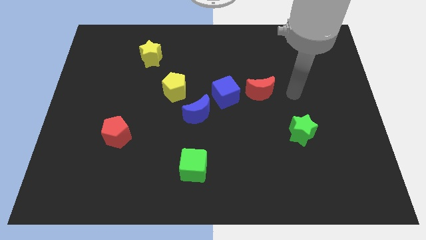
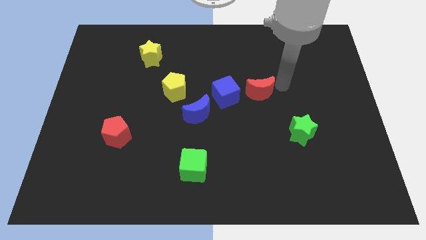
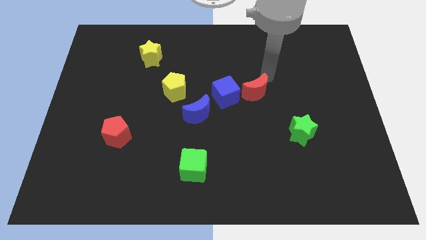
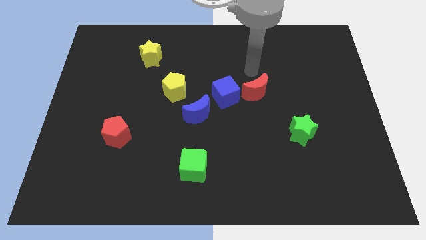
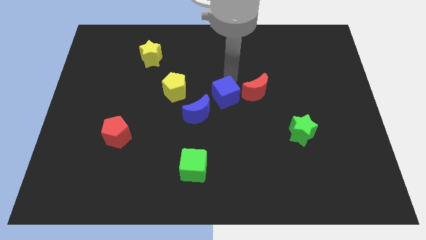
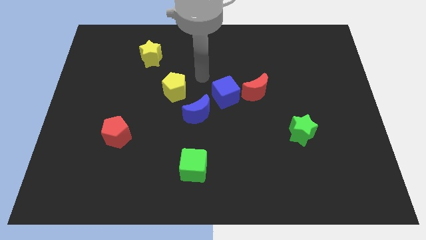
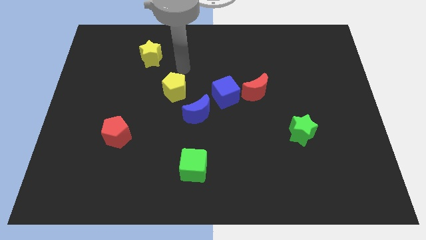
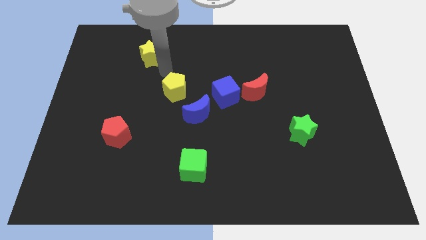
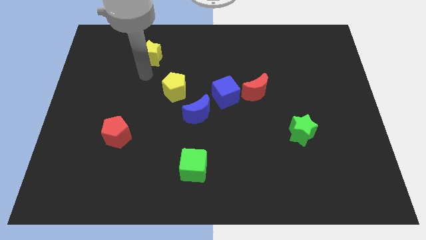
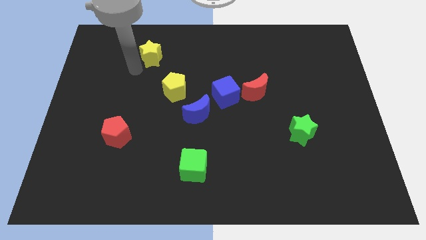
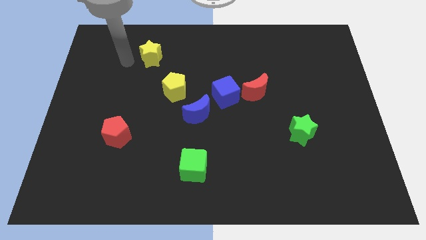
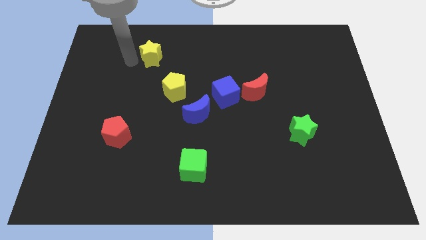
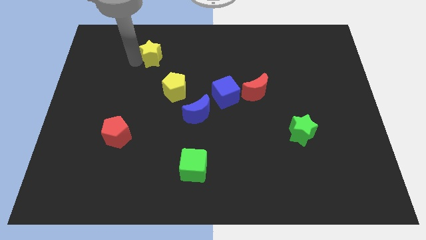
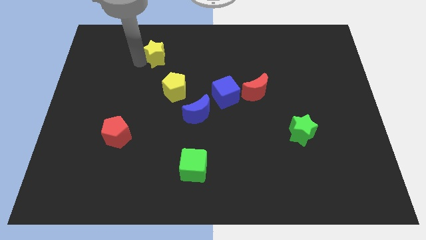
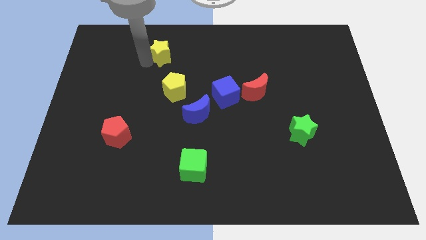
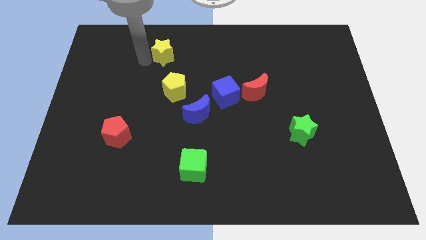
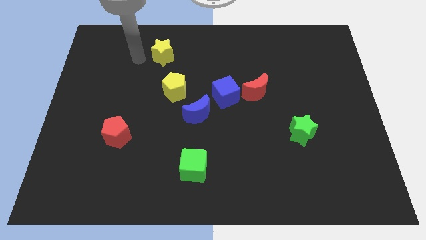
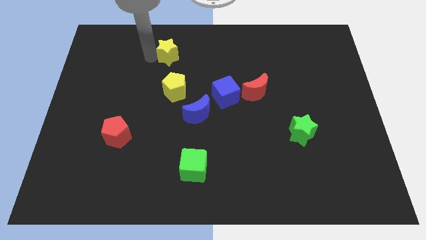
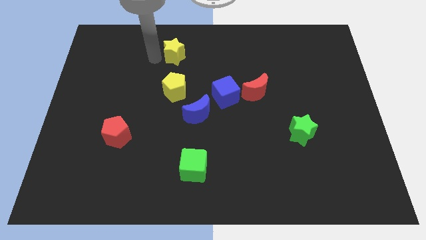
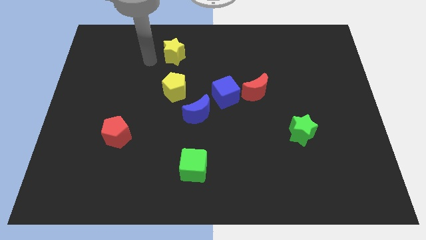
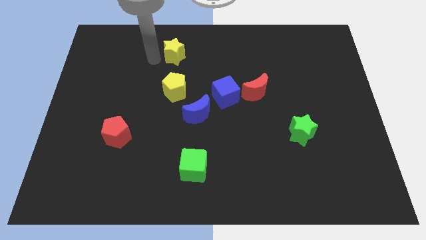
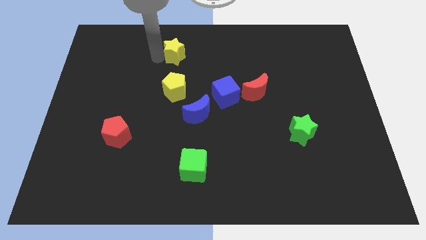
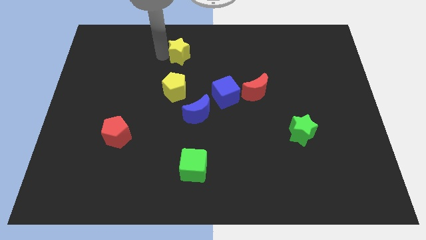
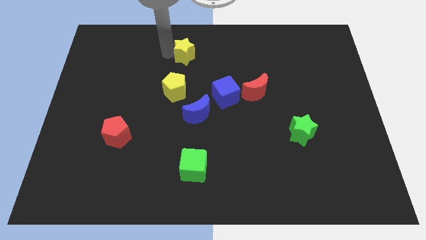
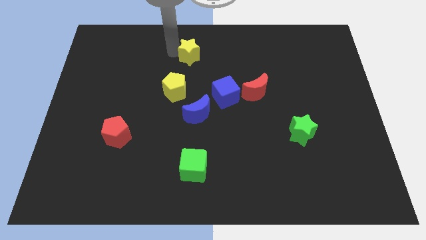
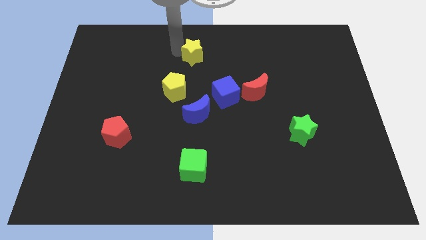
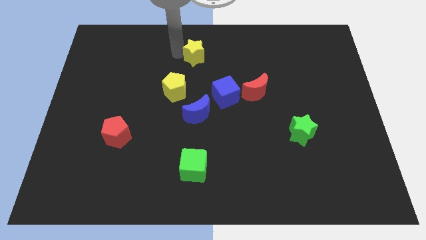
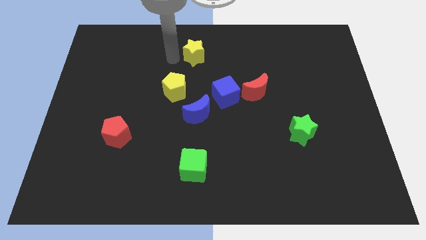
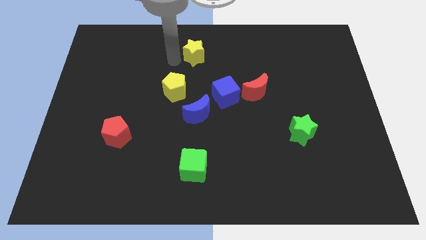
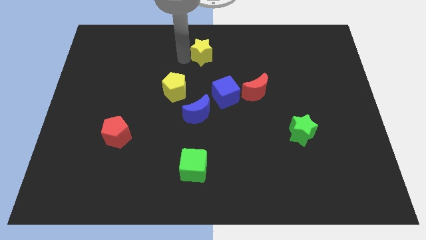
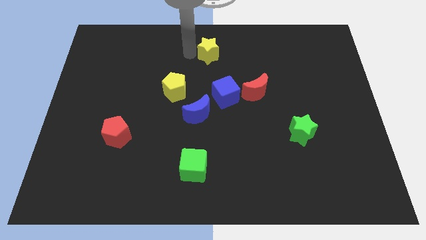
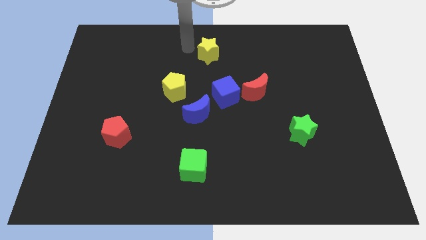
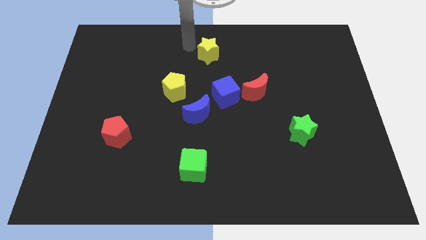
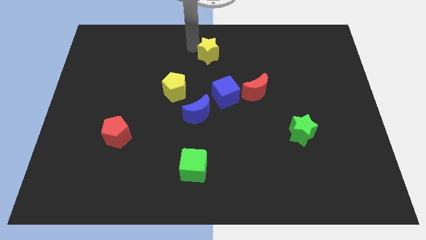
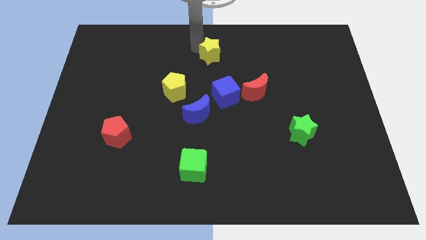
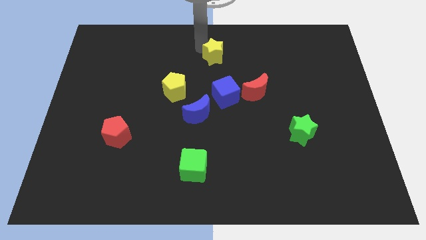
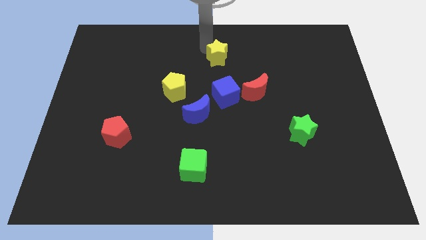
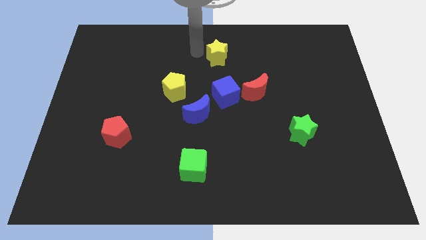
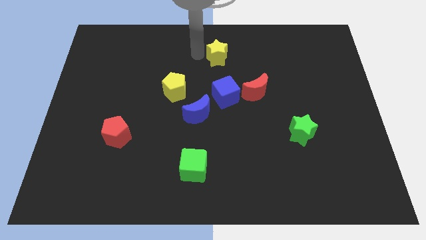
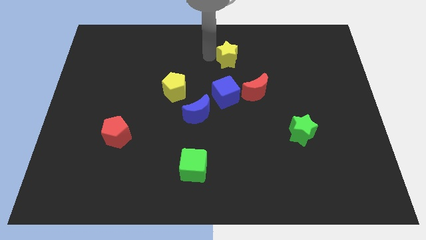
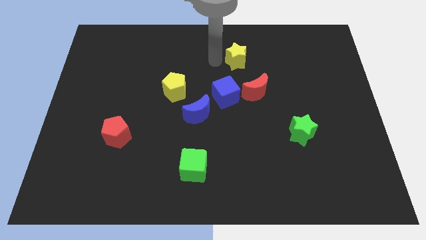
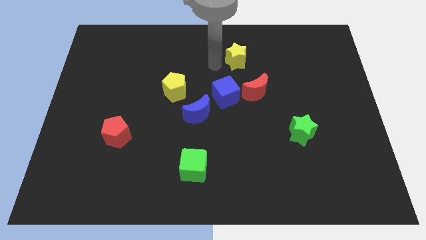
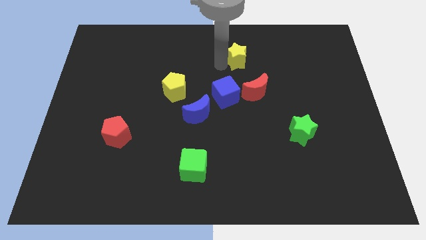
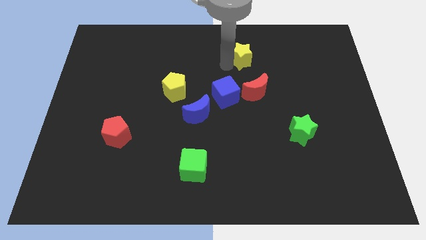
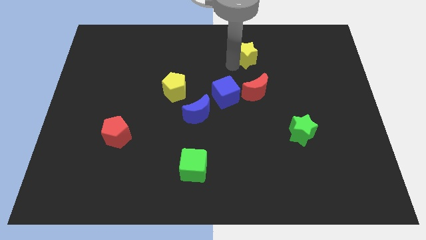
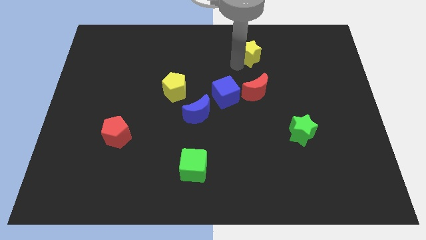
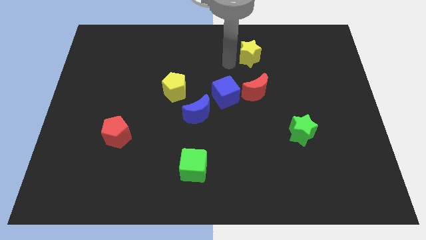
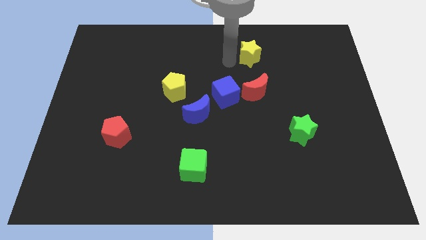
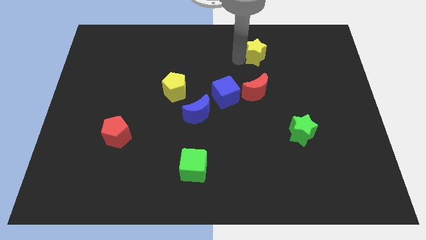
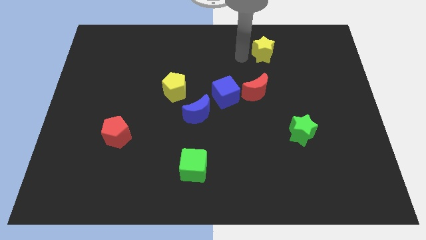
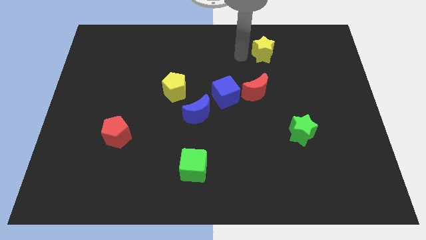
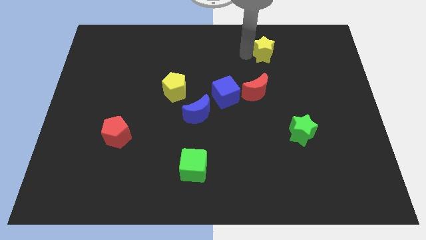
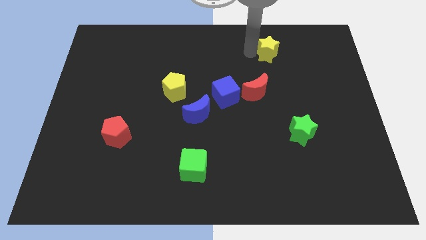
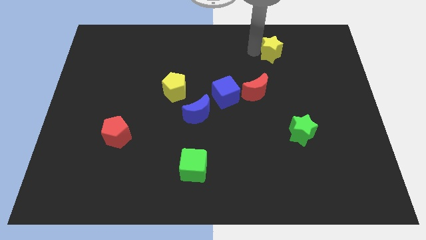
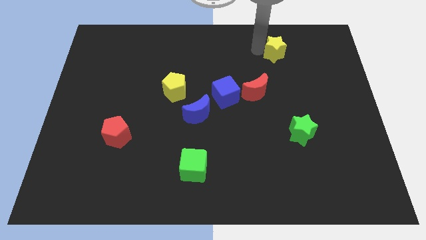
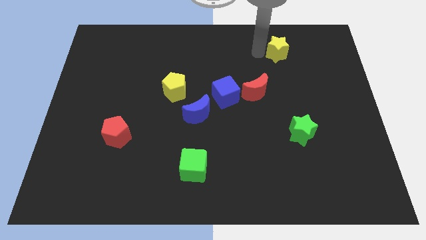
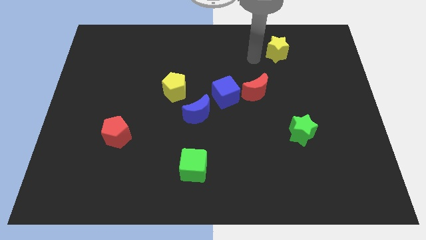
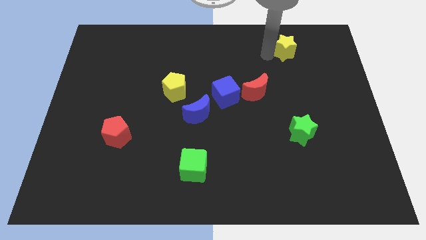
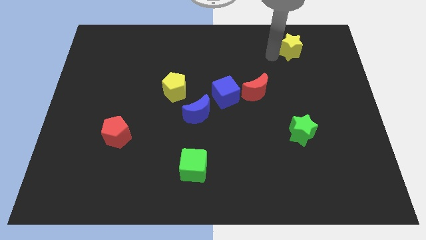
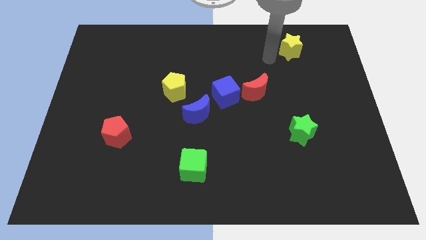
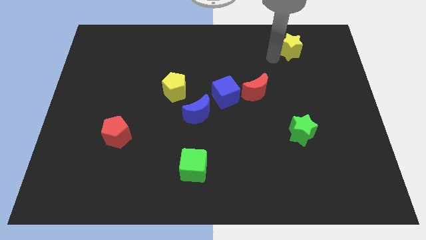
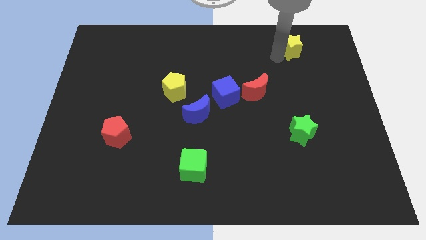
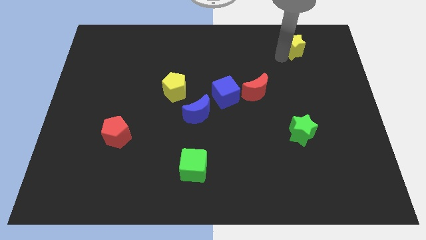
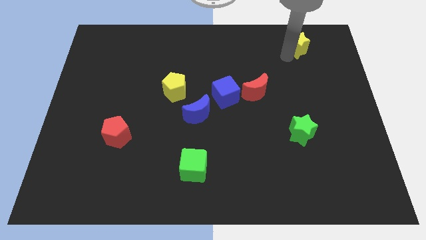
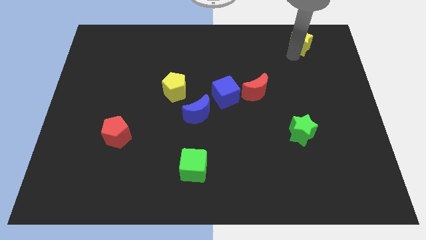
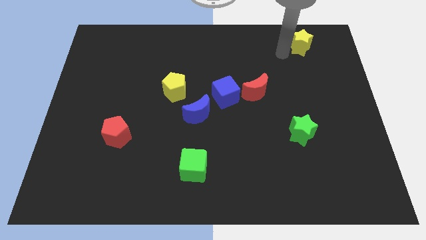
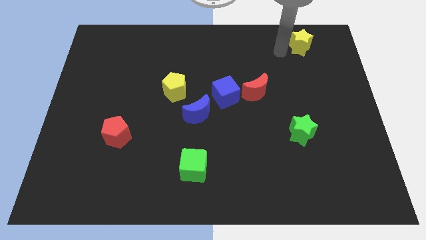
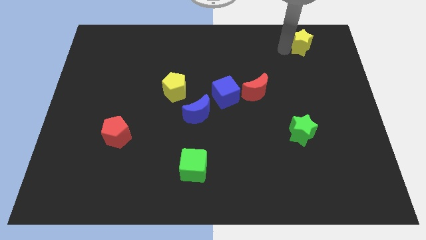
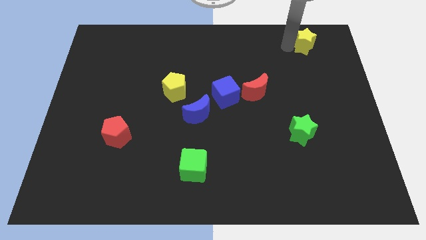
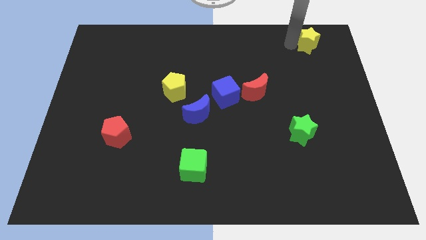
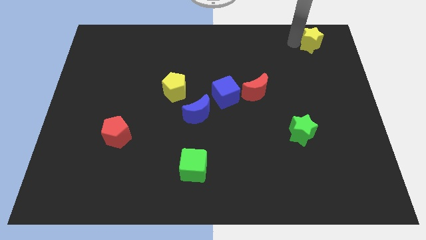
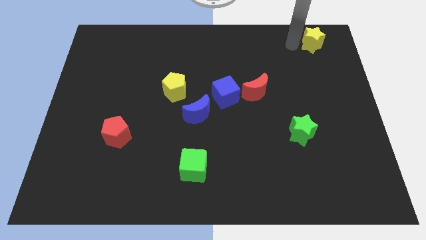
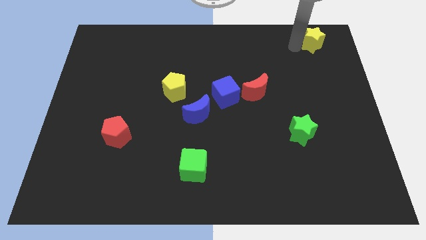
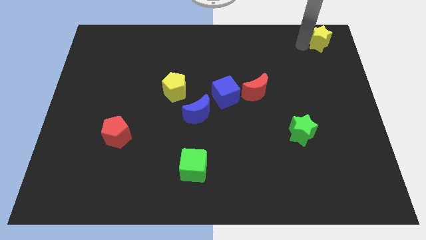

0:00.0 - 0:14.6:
put the yellow star to the top right of the board
